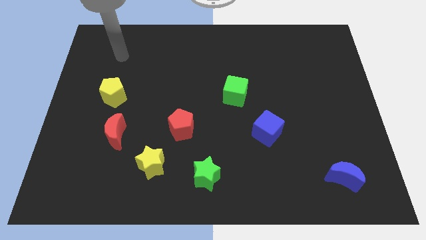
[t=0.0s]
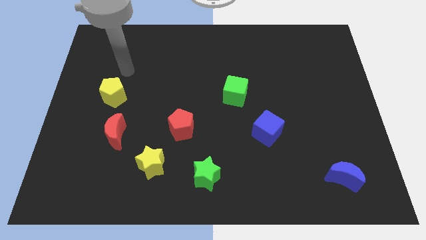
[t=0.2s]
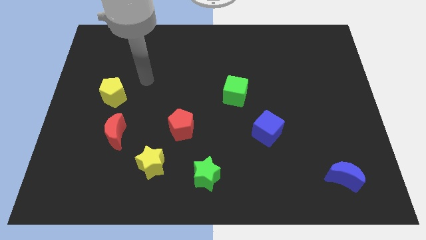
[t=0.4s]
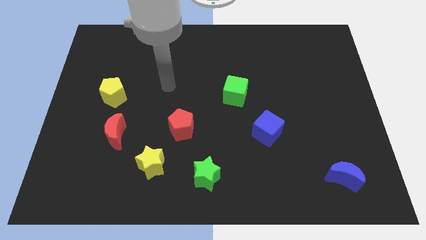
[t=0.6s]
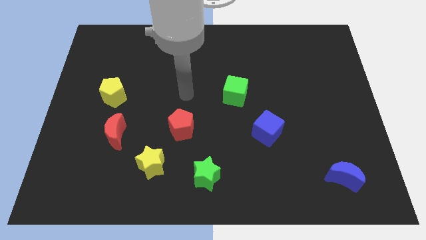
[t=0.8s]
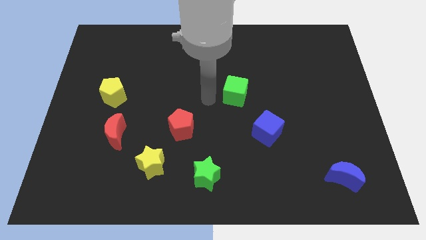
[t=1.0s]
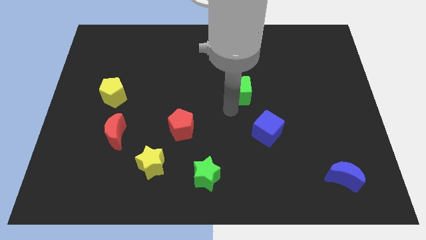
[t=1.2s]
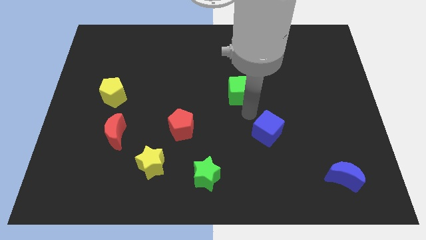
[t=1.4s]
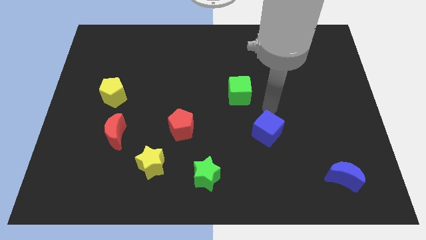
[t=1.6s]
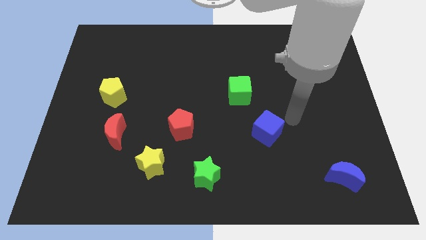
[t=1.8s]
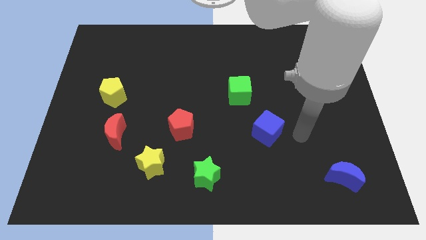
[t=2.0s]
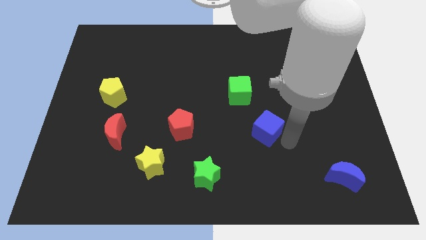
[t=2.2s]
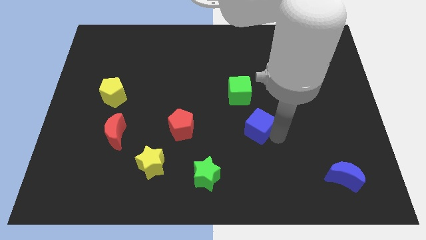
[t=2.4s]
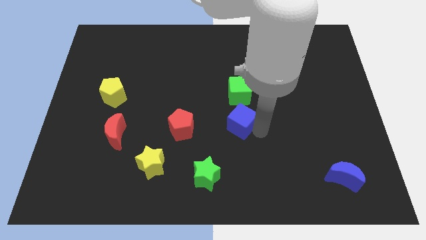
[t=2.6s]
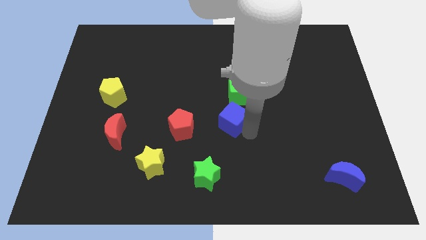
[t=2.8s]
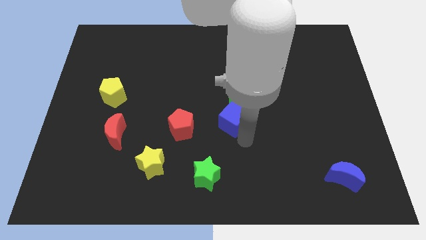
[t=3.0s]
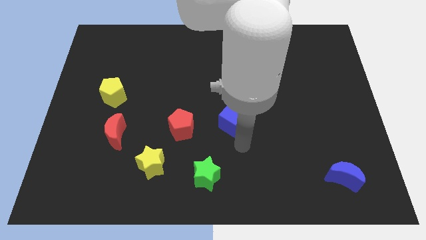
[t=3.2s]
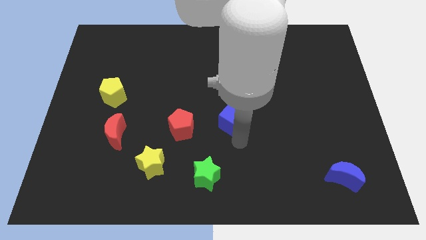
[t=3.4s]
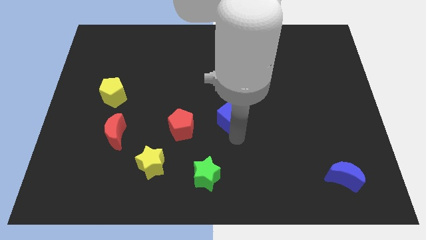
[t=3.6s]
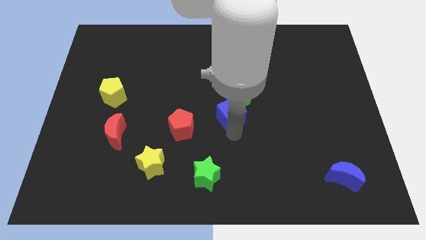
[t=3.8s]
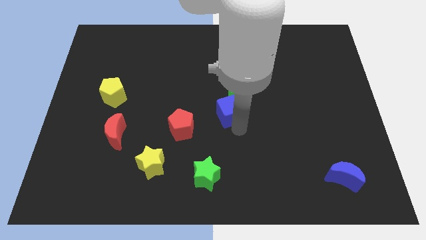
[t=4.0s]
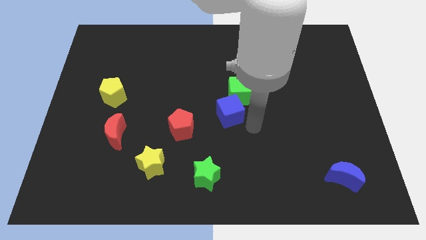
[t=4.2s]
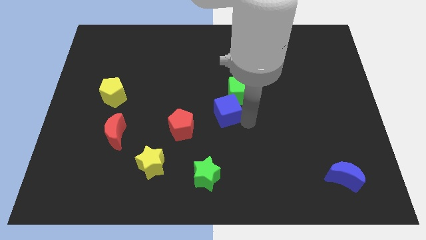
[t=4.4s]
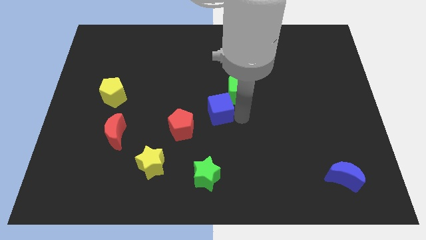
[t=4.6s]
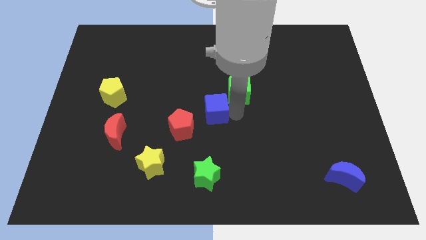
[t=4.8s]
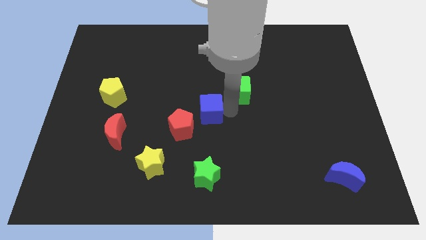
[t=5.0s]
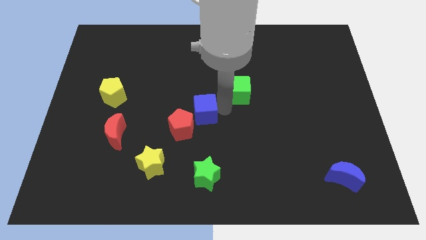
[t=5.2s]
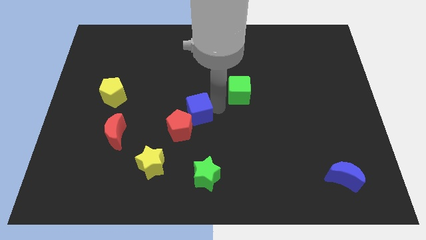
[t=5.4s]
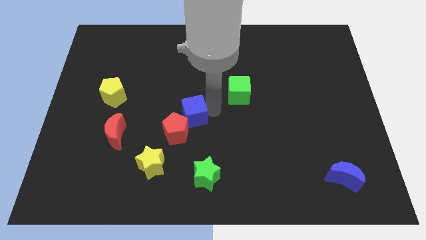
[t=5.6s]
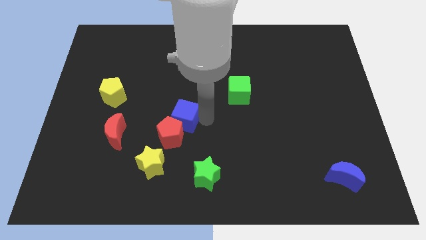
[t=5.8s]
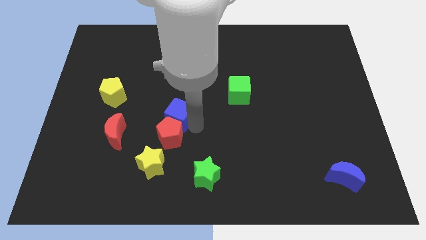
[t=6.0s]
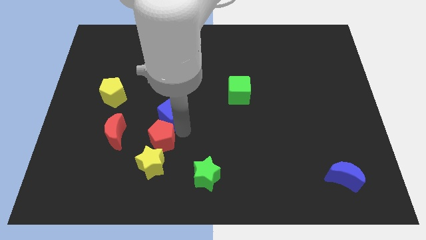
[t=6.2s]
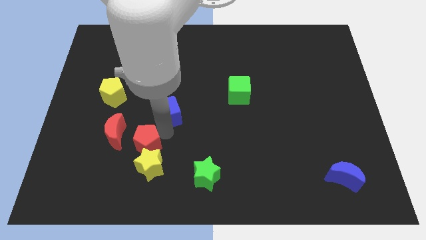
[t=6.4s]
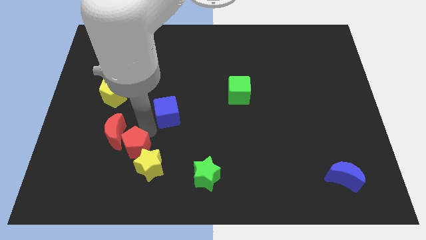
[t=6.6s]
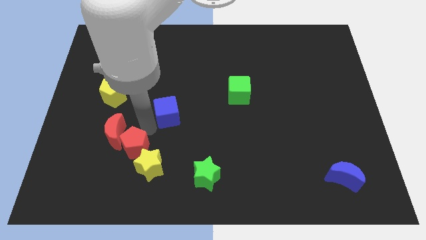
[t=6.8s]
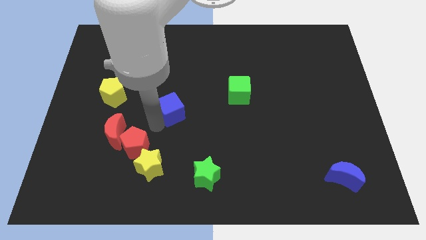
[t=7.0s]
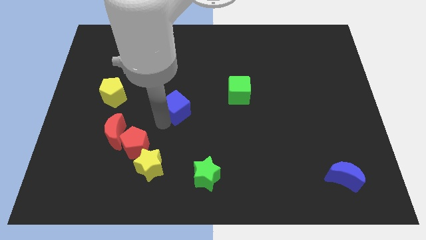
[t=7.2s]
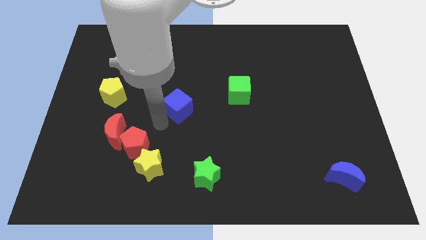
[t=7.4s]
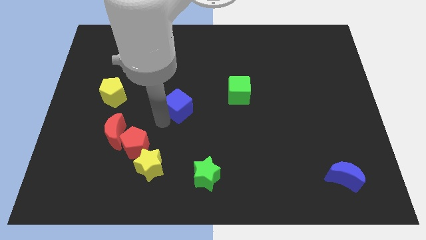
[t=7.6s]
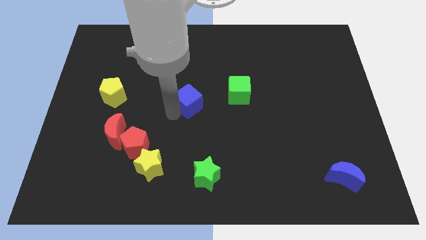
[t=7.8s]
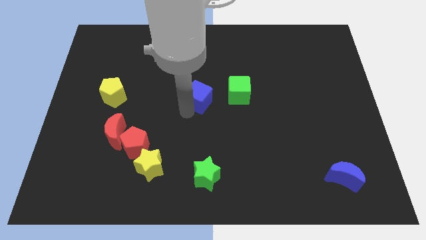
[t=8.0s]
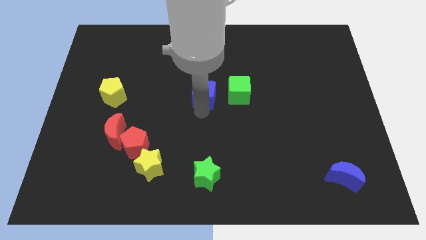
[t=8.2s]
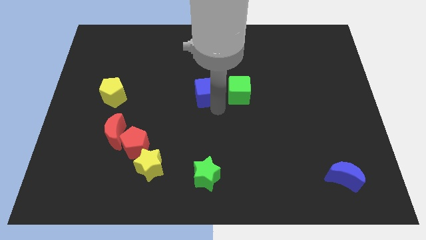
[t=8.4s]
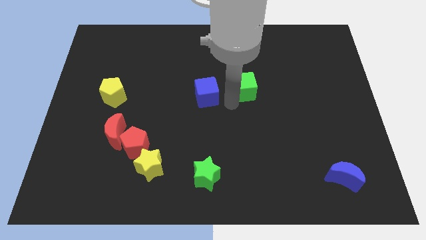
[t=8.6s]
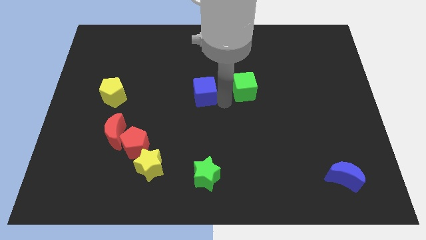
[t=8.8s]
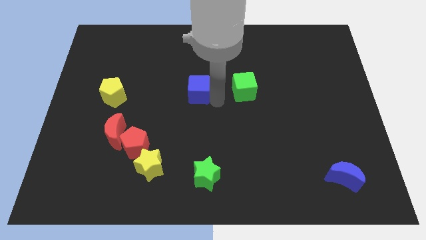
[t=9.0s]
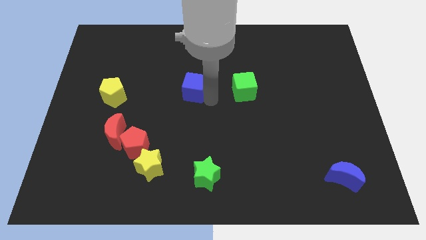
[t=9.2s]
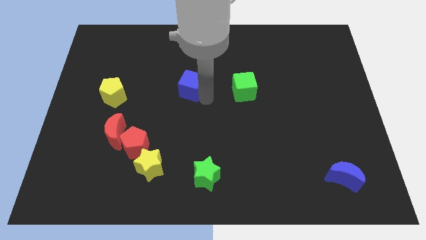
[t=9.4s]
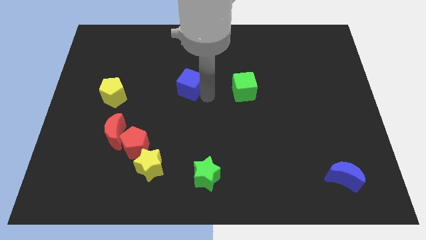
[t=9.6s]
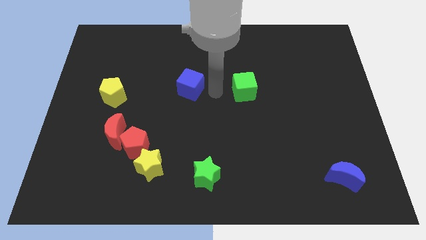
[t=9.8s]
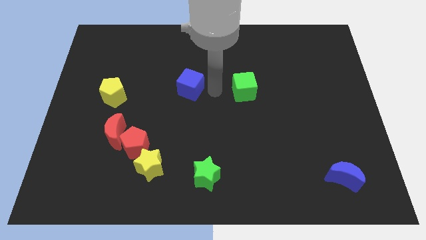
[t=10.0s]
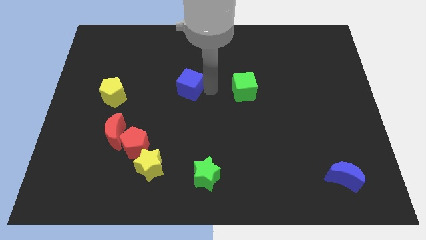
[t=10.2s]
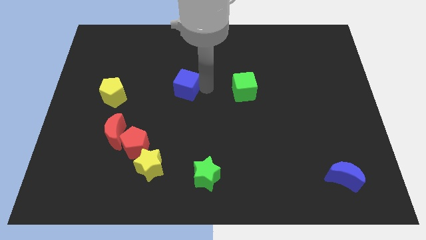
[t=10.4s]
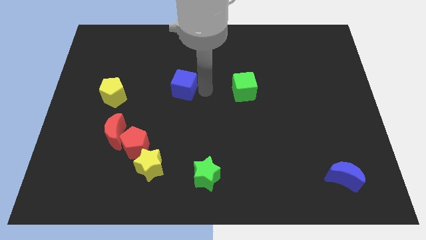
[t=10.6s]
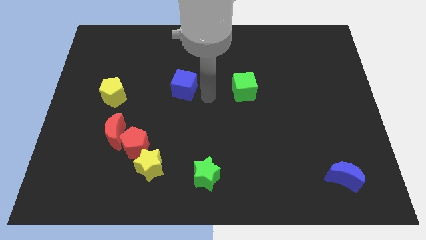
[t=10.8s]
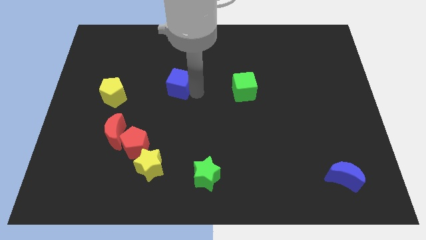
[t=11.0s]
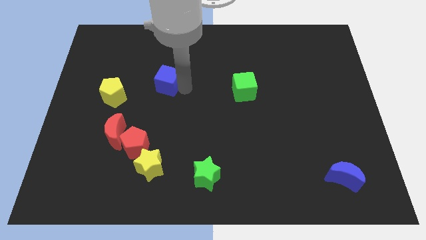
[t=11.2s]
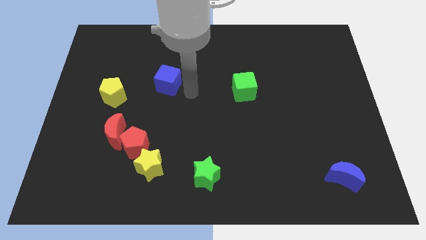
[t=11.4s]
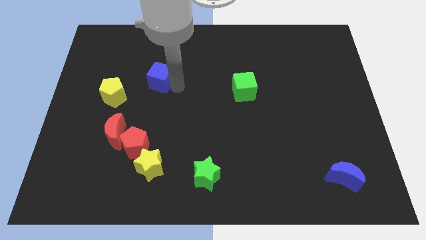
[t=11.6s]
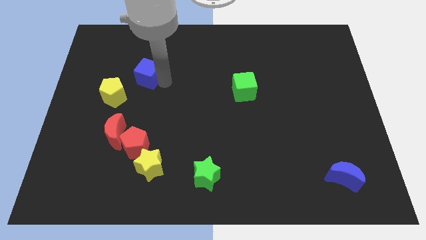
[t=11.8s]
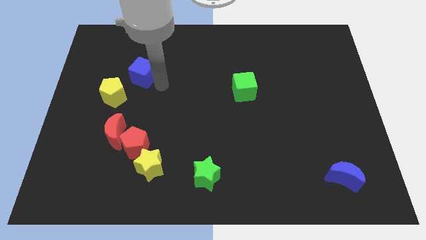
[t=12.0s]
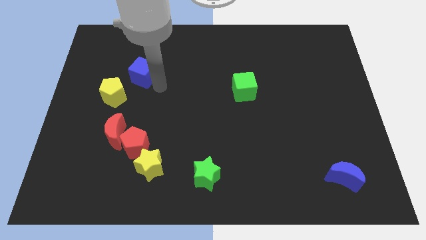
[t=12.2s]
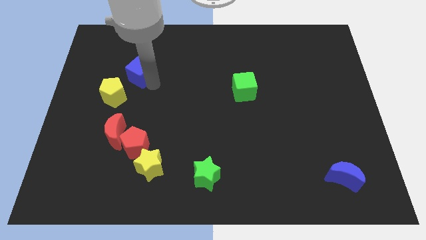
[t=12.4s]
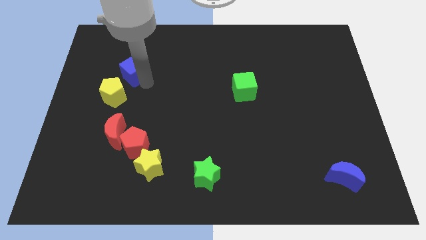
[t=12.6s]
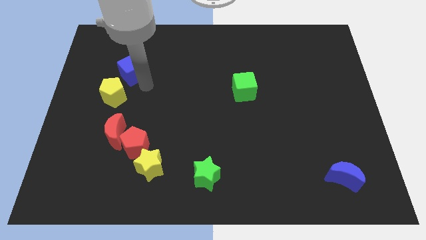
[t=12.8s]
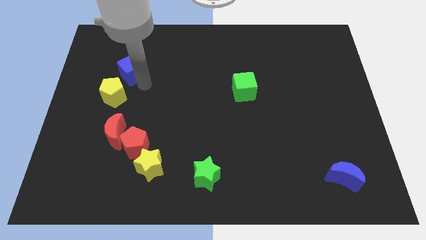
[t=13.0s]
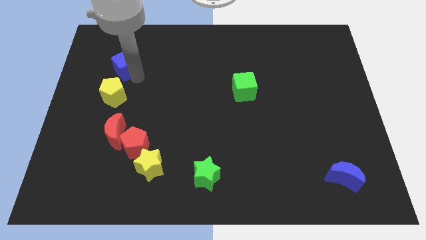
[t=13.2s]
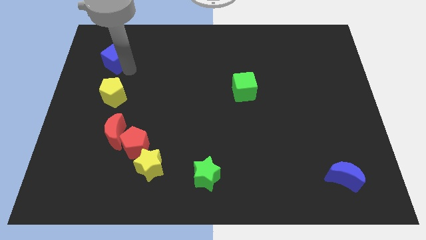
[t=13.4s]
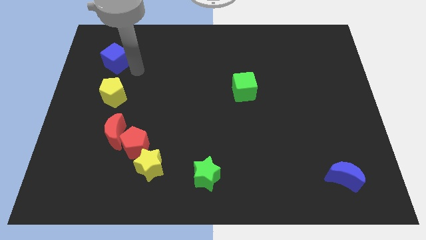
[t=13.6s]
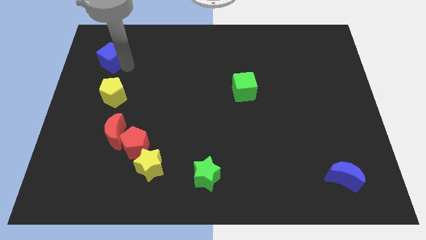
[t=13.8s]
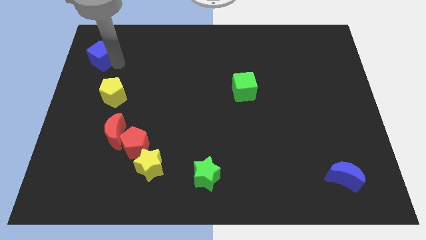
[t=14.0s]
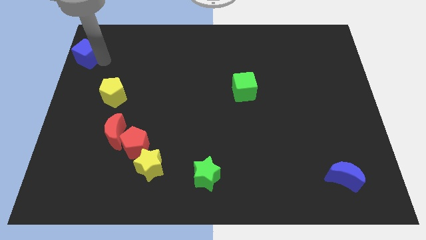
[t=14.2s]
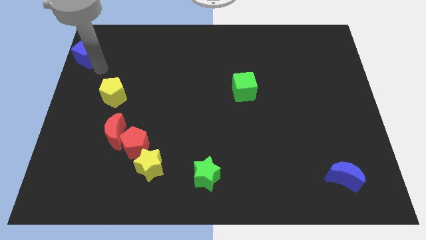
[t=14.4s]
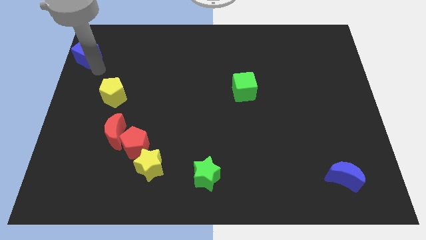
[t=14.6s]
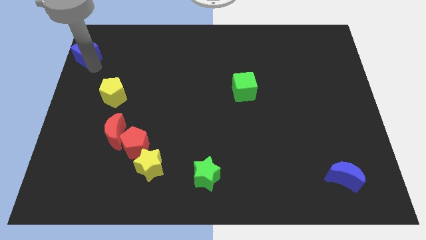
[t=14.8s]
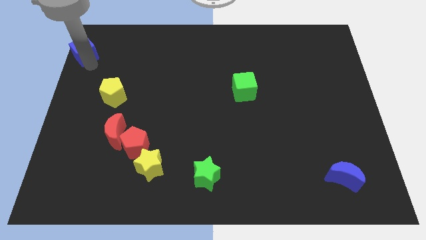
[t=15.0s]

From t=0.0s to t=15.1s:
slide the blue cube to the top left of the board
